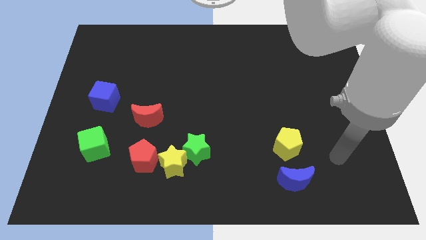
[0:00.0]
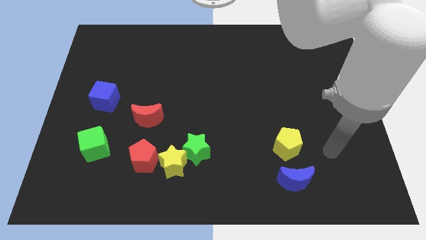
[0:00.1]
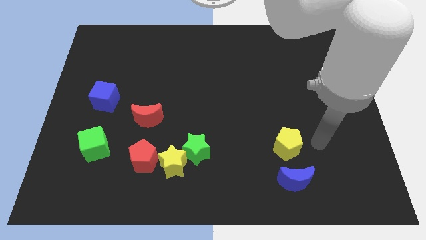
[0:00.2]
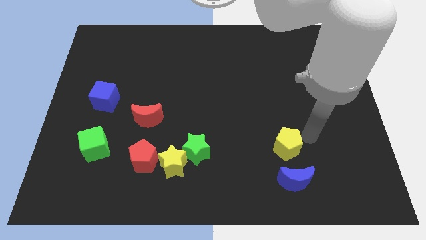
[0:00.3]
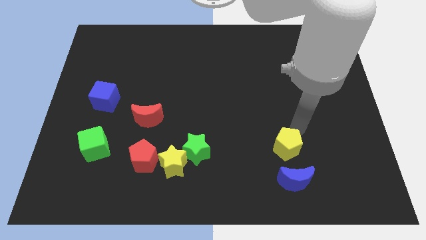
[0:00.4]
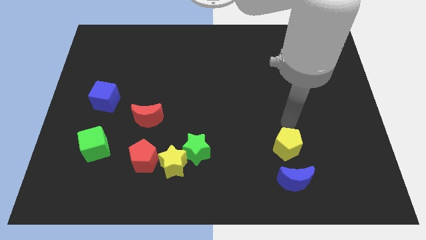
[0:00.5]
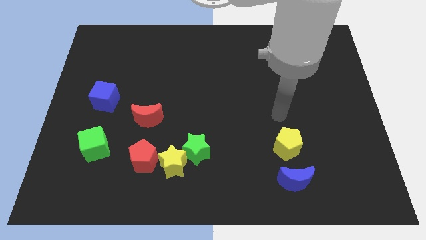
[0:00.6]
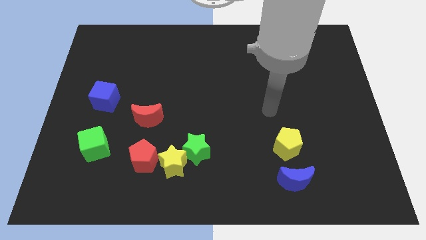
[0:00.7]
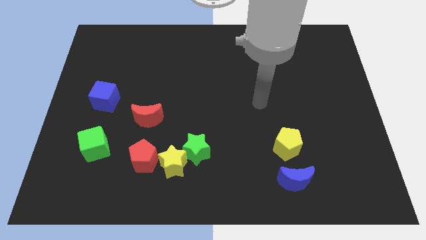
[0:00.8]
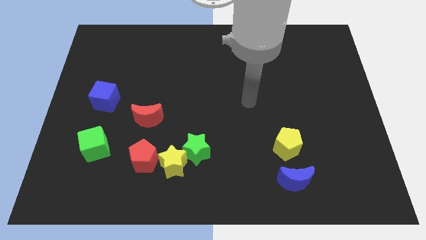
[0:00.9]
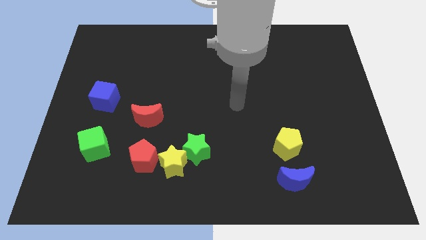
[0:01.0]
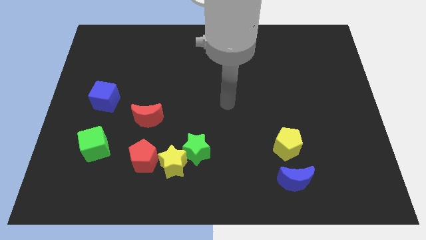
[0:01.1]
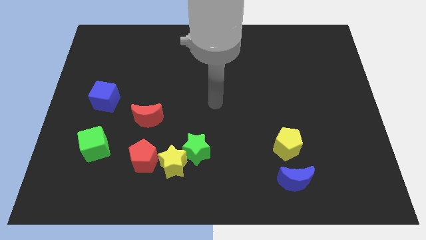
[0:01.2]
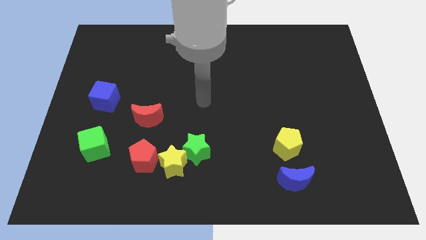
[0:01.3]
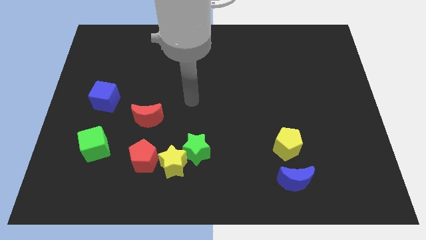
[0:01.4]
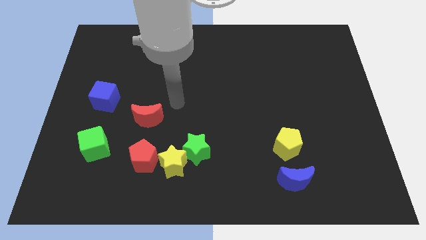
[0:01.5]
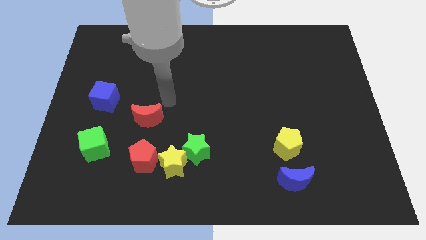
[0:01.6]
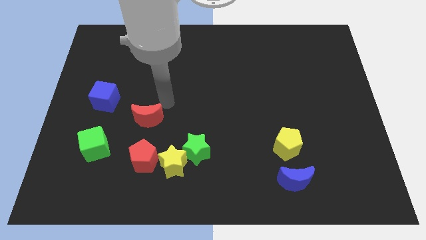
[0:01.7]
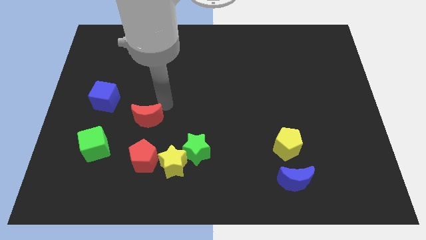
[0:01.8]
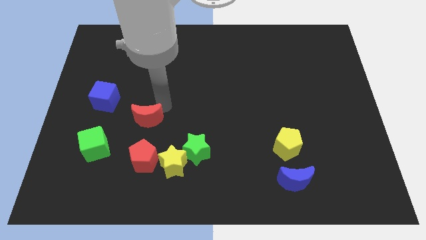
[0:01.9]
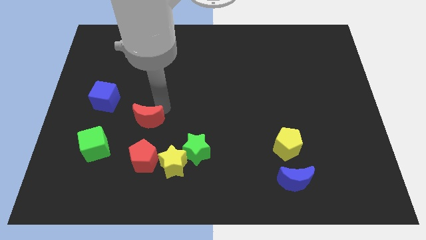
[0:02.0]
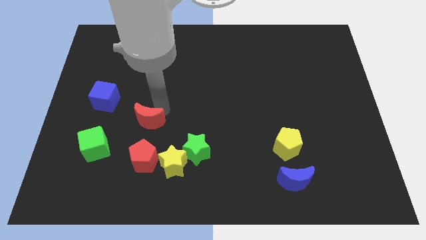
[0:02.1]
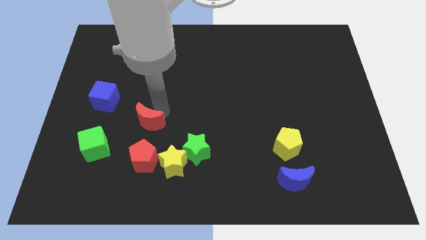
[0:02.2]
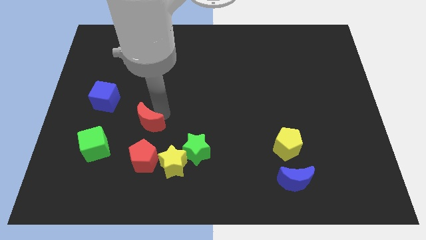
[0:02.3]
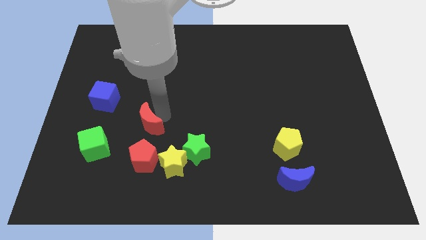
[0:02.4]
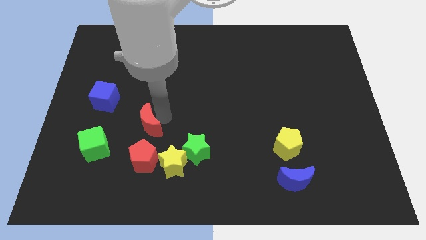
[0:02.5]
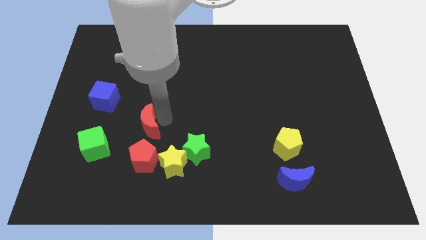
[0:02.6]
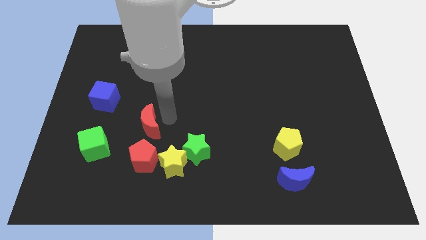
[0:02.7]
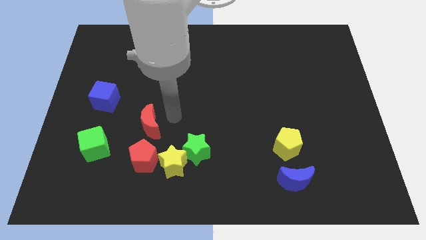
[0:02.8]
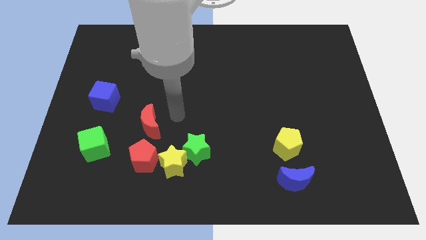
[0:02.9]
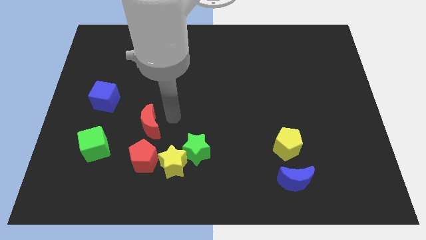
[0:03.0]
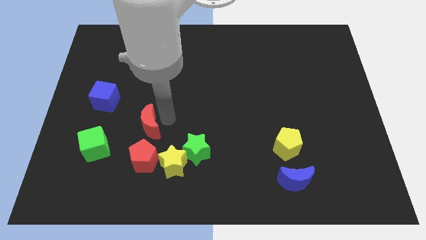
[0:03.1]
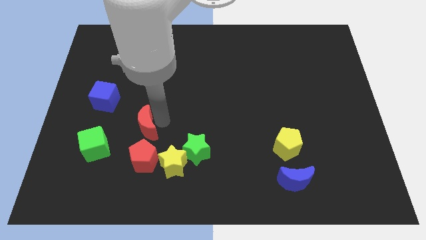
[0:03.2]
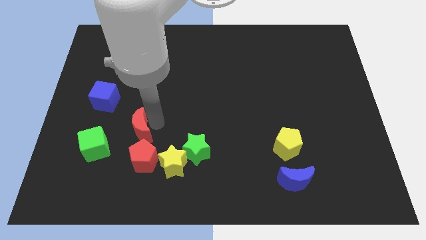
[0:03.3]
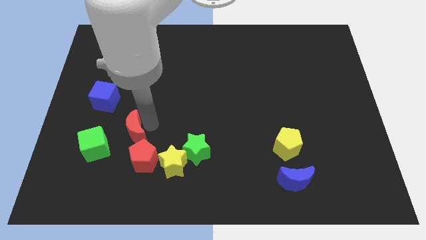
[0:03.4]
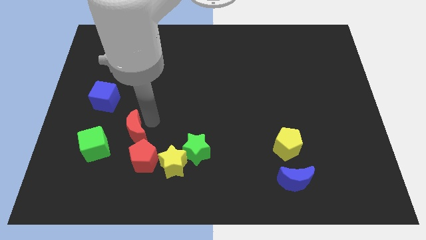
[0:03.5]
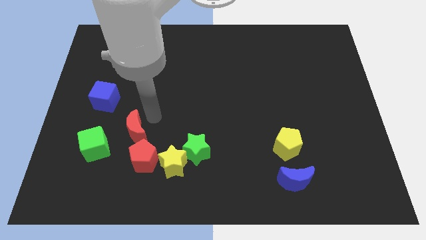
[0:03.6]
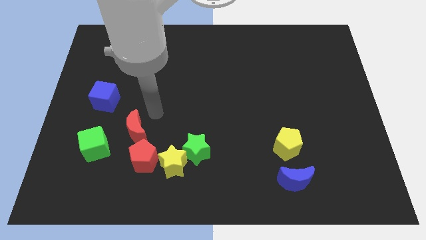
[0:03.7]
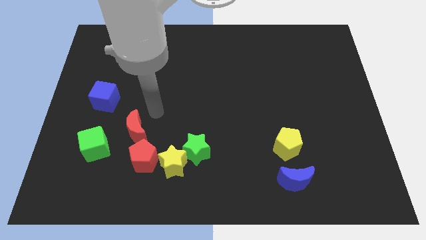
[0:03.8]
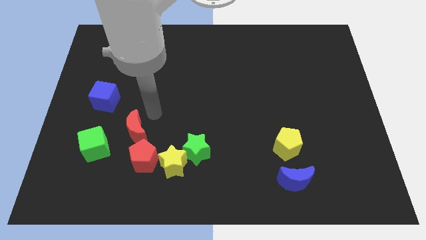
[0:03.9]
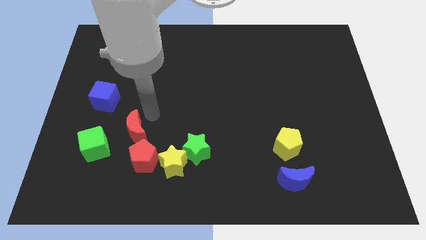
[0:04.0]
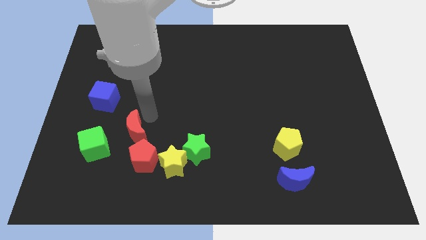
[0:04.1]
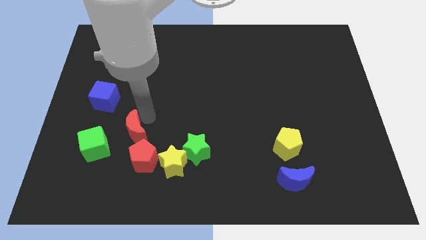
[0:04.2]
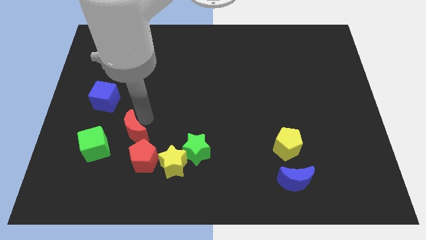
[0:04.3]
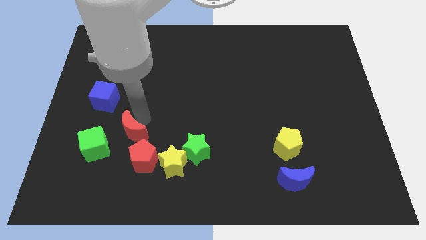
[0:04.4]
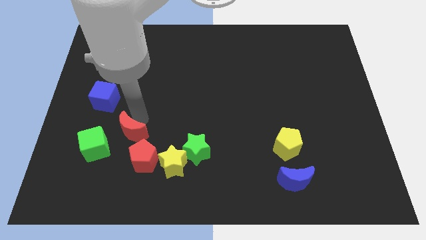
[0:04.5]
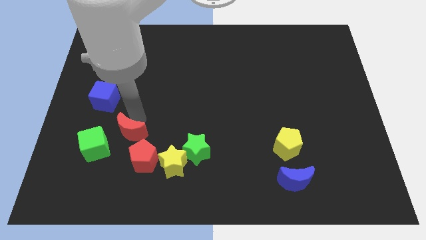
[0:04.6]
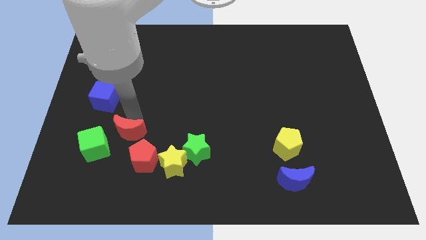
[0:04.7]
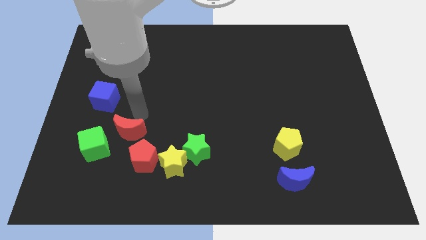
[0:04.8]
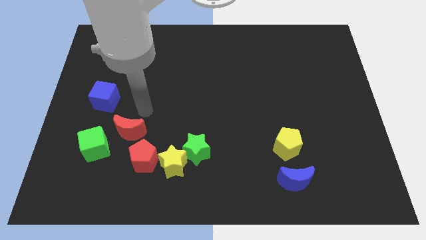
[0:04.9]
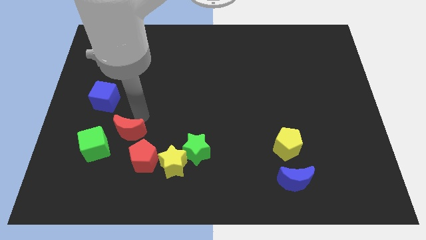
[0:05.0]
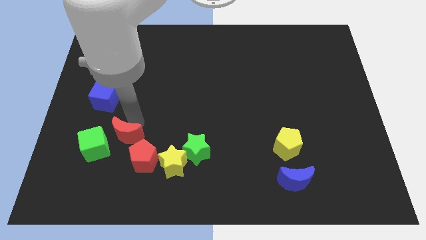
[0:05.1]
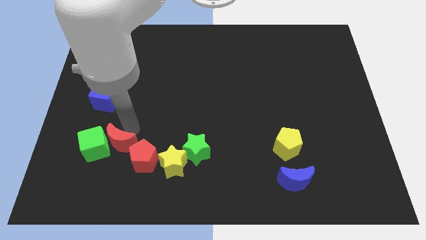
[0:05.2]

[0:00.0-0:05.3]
slightly push the red moon downwards and then left

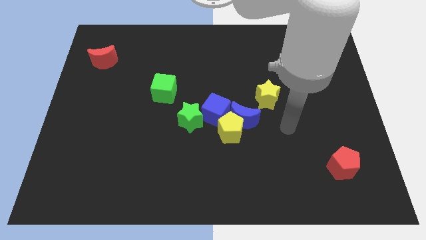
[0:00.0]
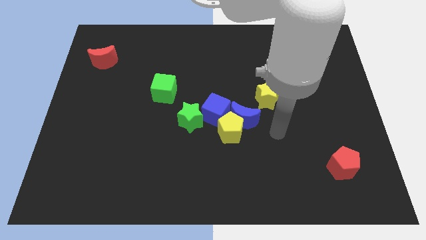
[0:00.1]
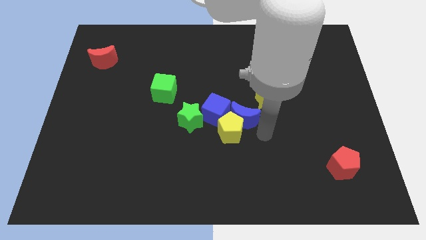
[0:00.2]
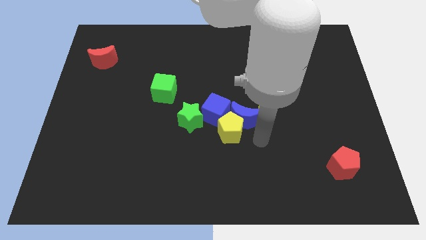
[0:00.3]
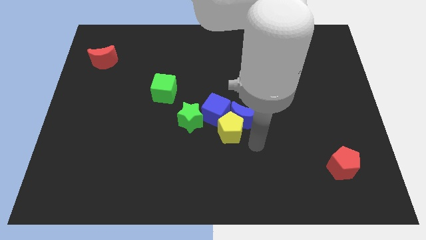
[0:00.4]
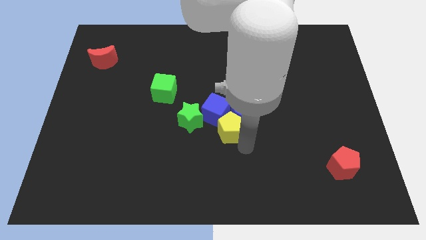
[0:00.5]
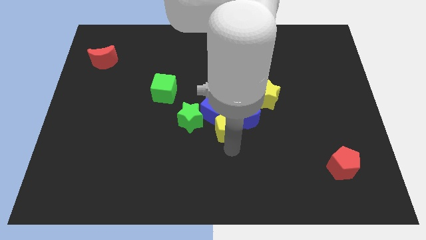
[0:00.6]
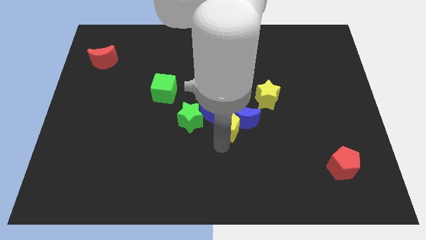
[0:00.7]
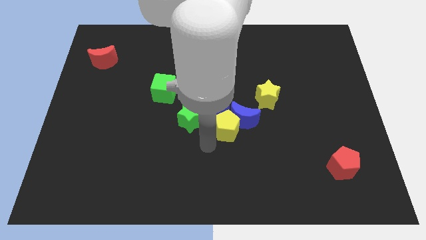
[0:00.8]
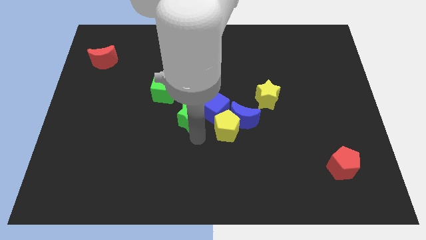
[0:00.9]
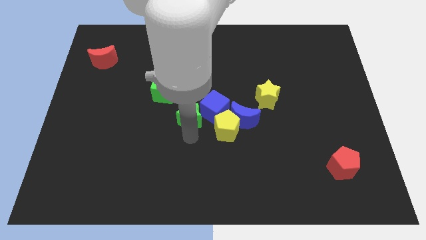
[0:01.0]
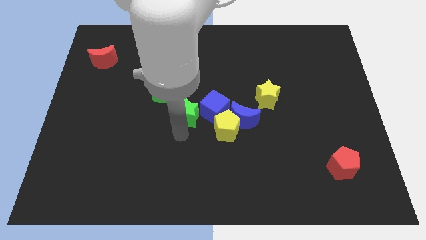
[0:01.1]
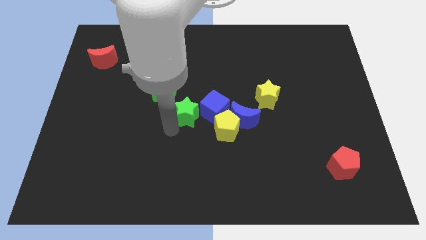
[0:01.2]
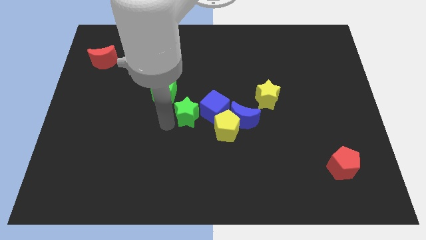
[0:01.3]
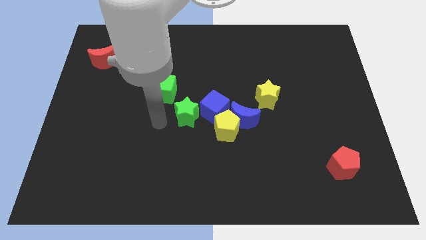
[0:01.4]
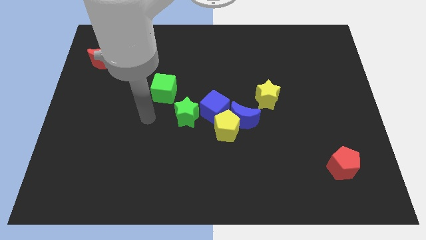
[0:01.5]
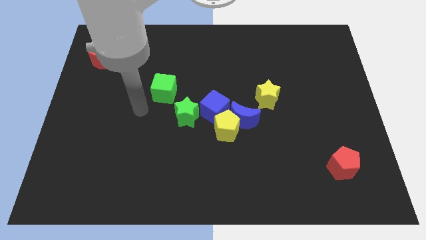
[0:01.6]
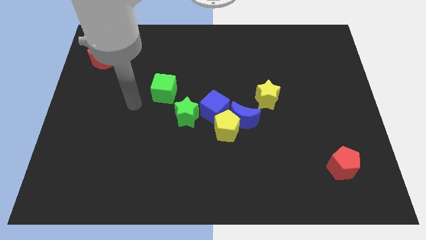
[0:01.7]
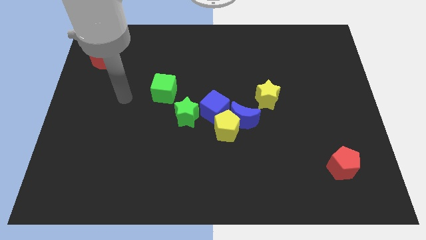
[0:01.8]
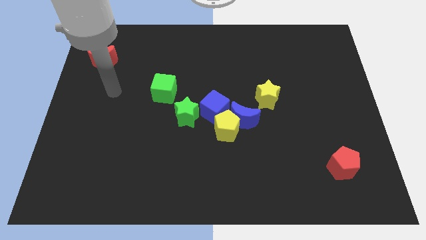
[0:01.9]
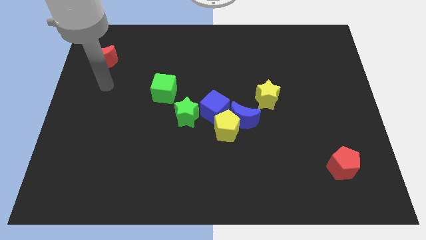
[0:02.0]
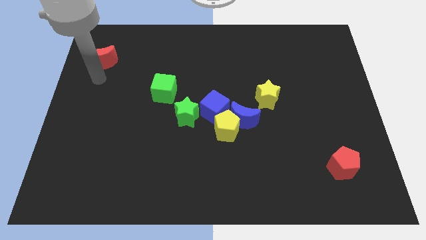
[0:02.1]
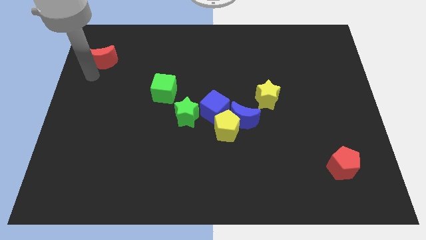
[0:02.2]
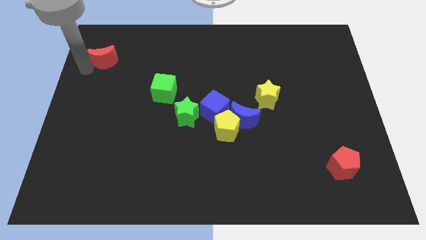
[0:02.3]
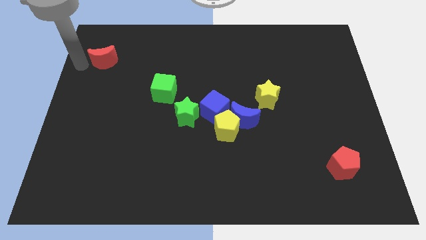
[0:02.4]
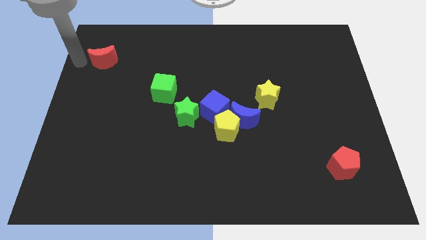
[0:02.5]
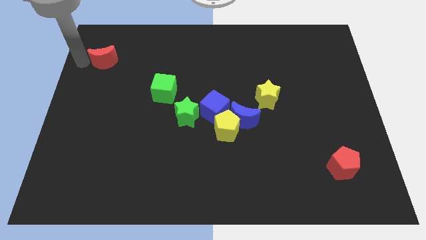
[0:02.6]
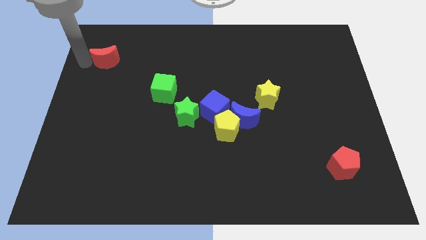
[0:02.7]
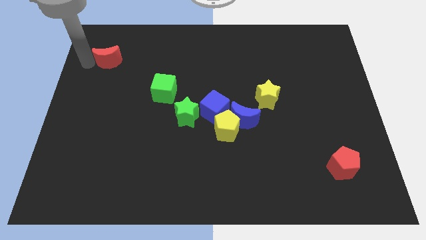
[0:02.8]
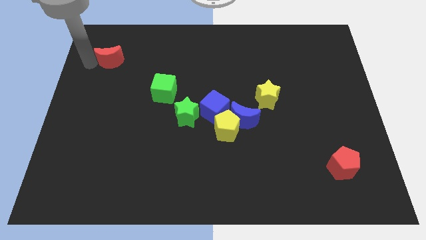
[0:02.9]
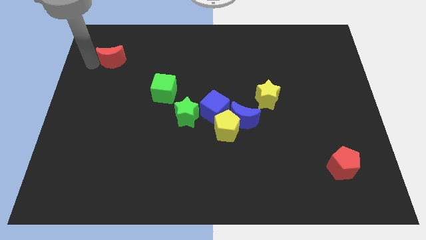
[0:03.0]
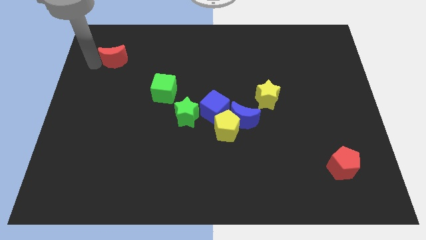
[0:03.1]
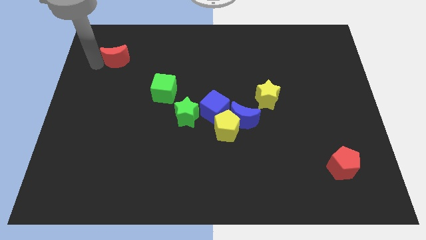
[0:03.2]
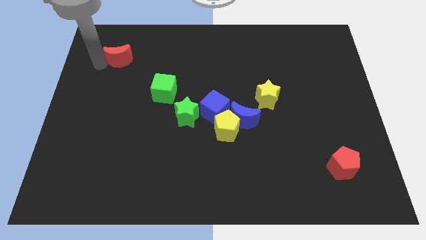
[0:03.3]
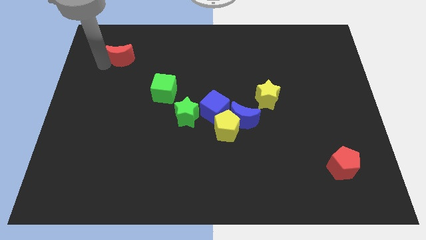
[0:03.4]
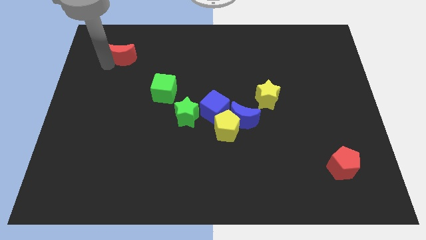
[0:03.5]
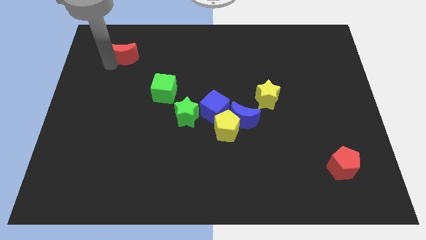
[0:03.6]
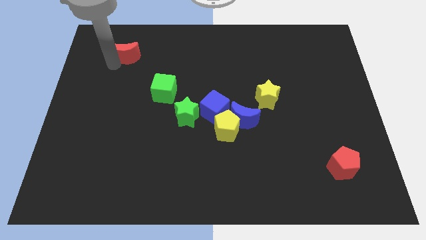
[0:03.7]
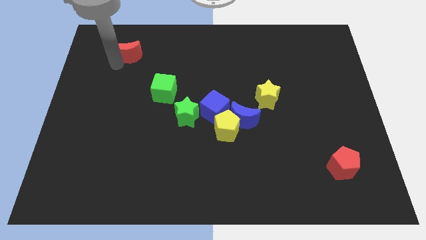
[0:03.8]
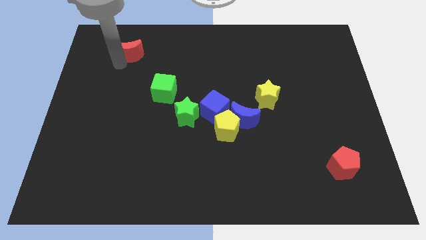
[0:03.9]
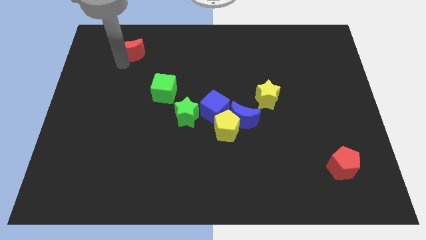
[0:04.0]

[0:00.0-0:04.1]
move the red moon a bit to the right
